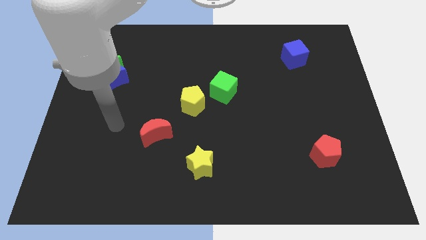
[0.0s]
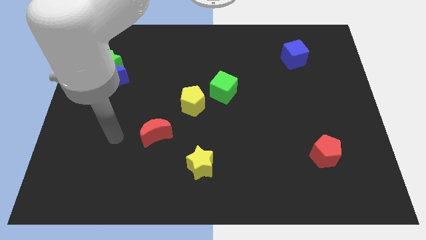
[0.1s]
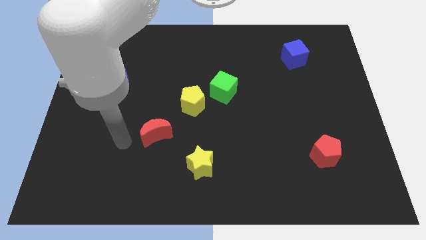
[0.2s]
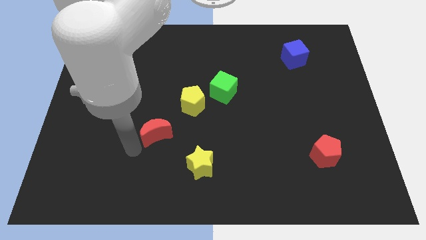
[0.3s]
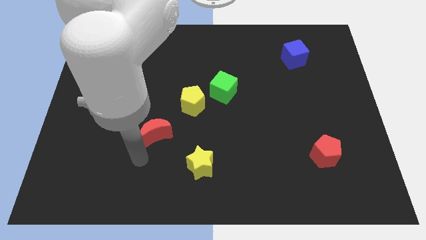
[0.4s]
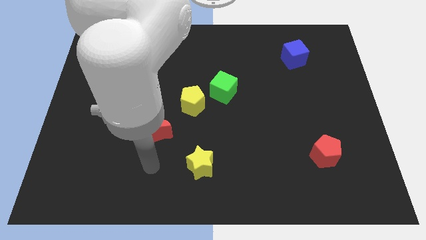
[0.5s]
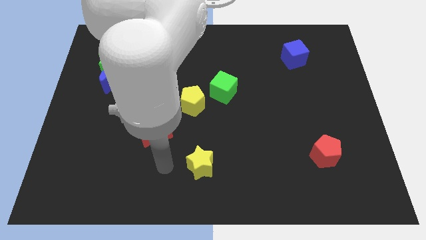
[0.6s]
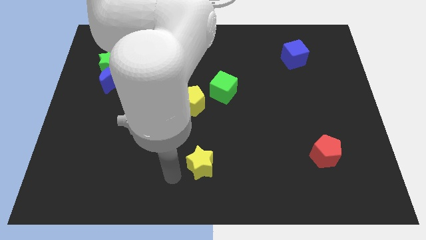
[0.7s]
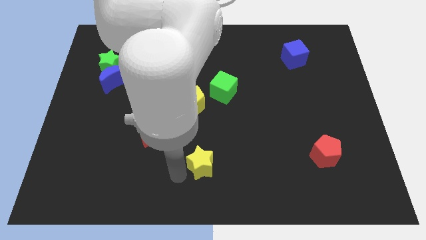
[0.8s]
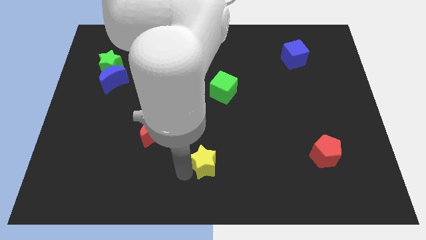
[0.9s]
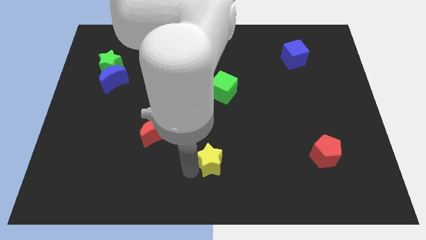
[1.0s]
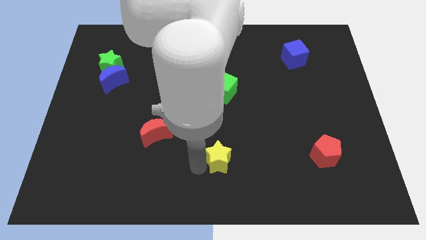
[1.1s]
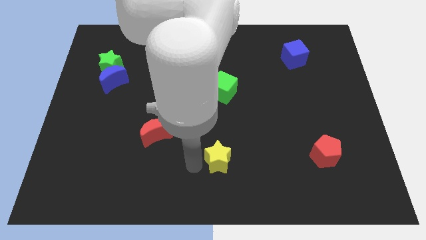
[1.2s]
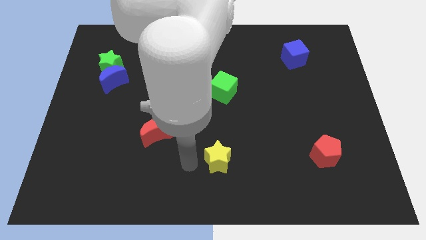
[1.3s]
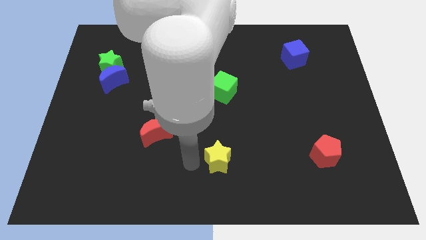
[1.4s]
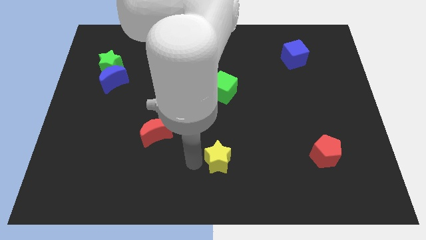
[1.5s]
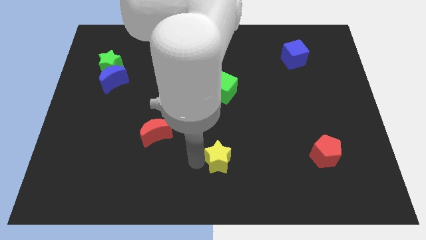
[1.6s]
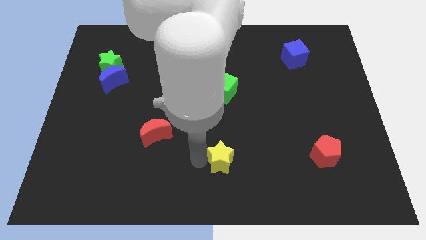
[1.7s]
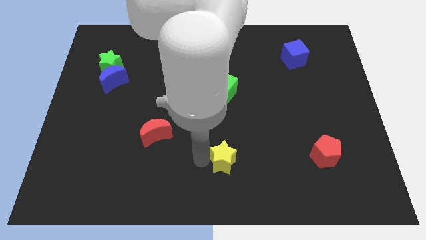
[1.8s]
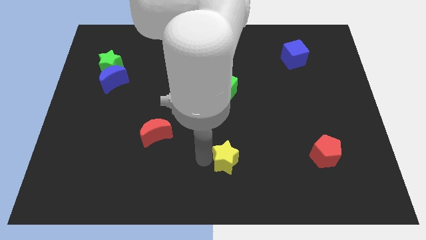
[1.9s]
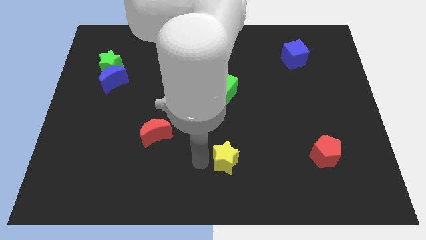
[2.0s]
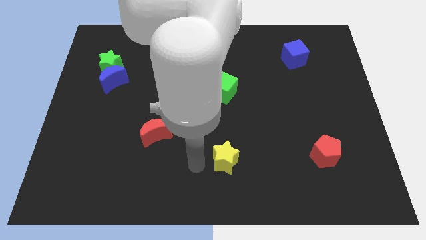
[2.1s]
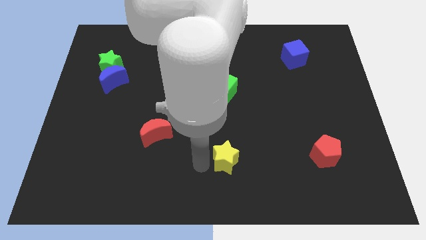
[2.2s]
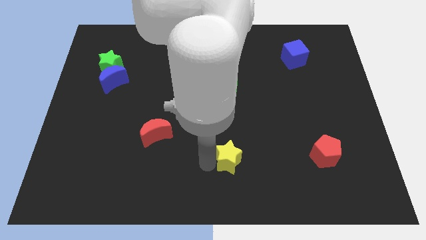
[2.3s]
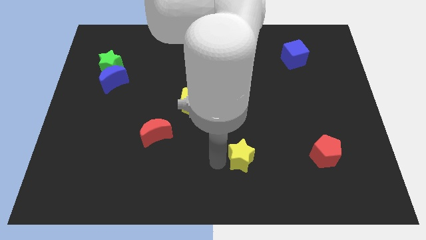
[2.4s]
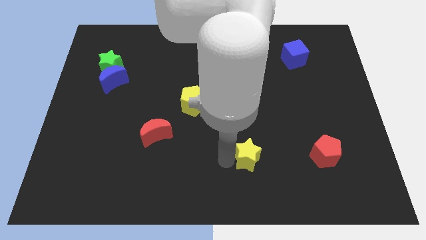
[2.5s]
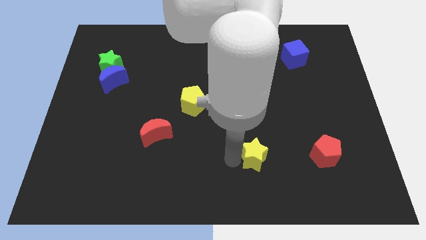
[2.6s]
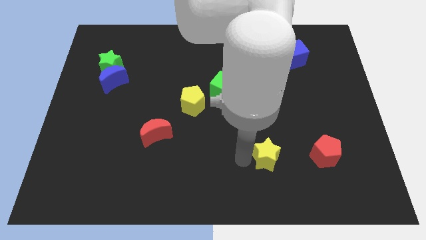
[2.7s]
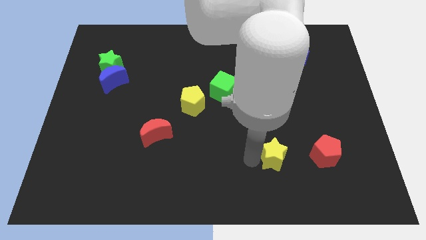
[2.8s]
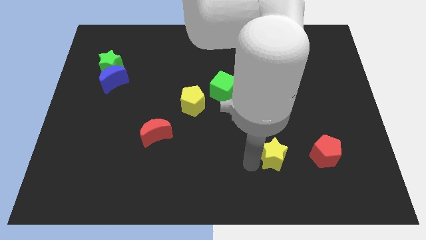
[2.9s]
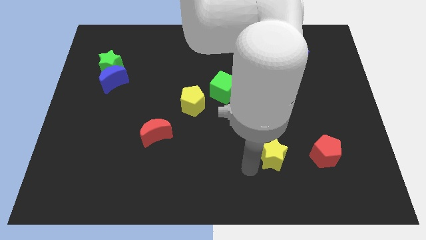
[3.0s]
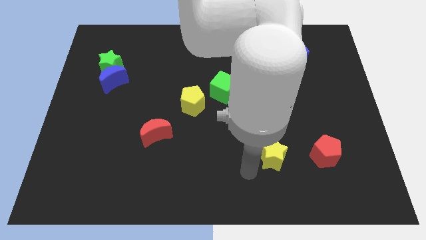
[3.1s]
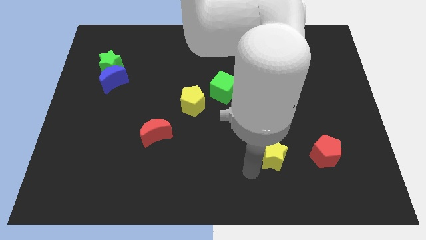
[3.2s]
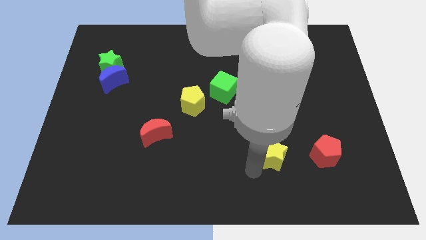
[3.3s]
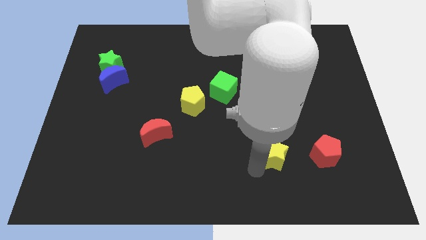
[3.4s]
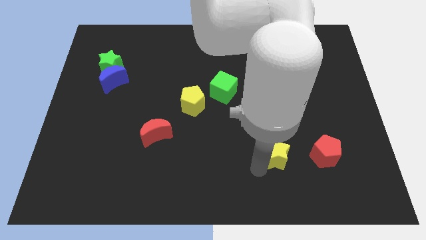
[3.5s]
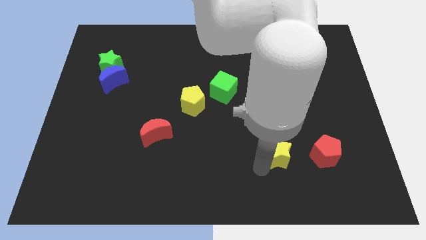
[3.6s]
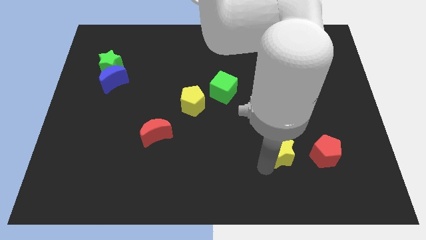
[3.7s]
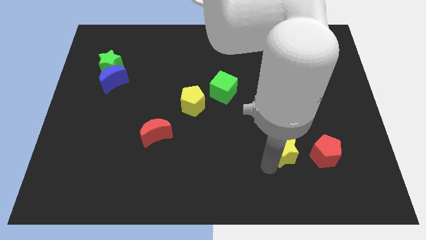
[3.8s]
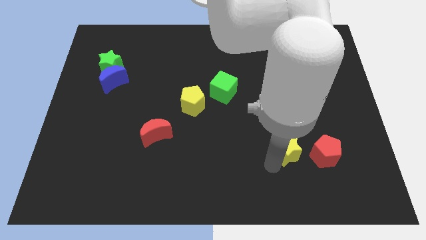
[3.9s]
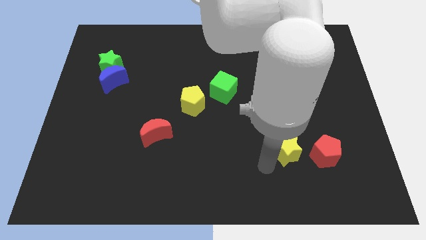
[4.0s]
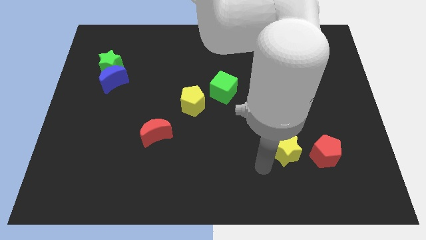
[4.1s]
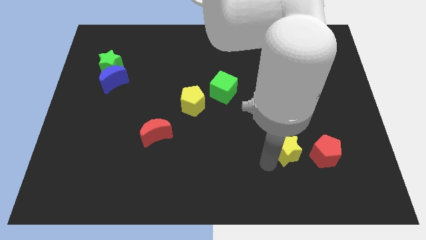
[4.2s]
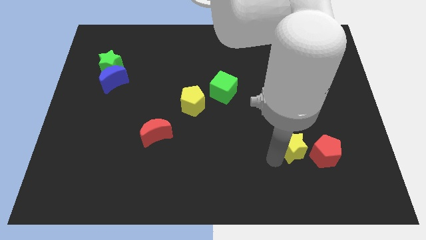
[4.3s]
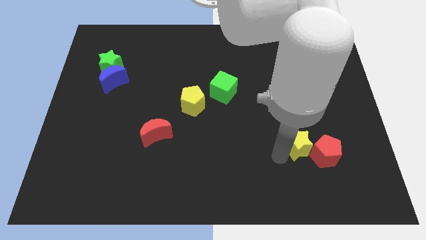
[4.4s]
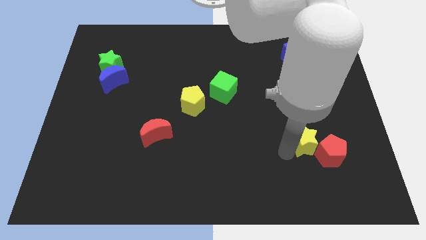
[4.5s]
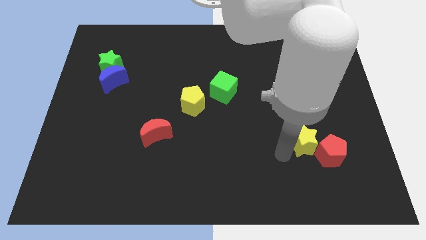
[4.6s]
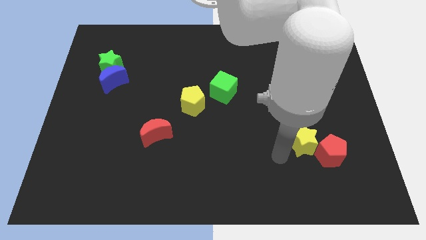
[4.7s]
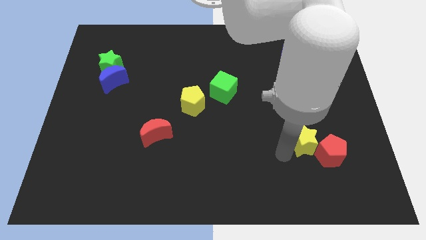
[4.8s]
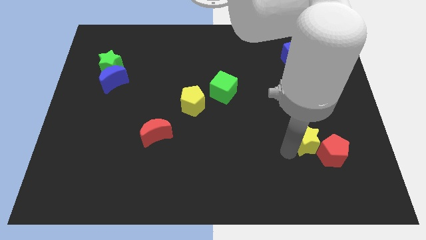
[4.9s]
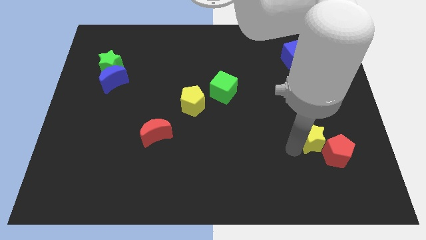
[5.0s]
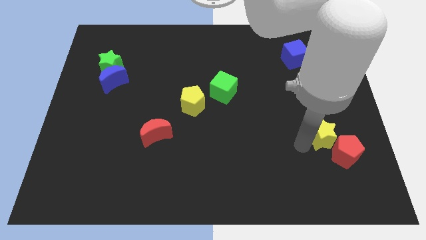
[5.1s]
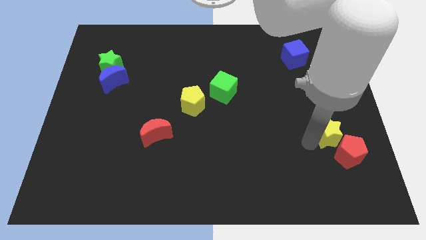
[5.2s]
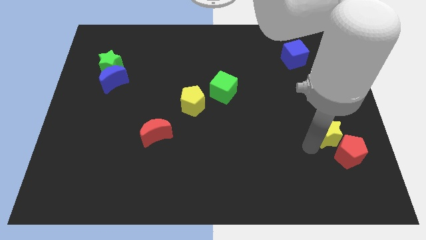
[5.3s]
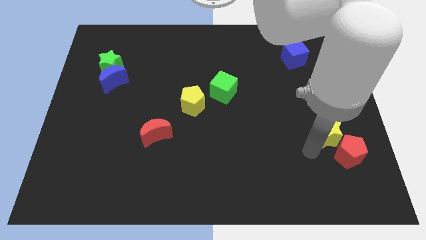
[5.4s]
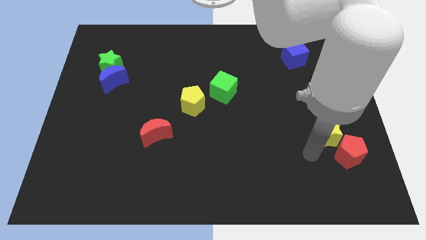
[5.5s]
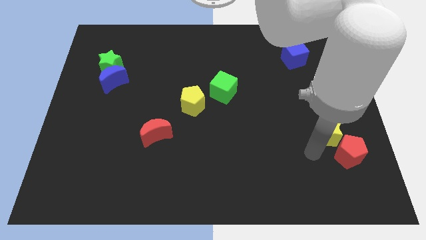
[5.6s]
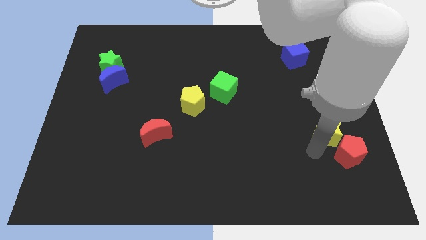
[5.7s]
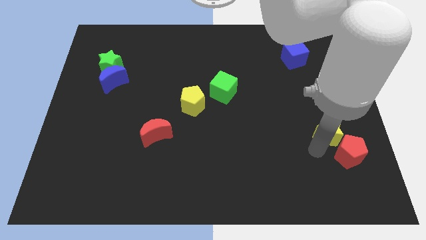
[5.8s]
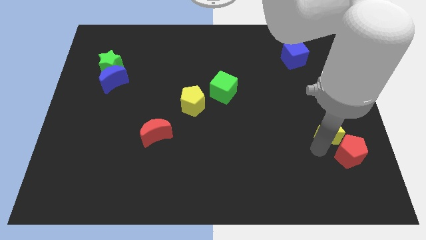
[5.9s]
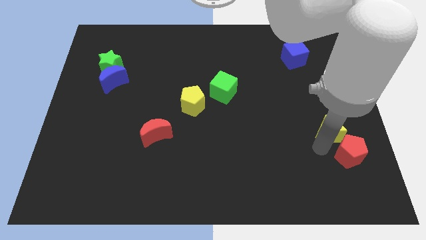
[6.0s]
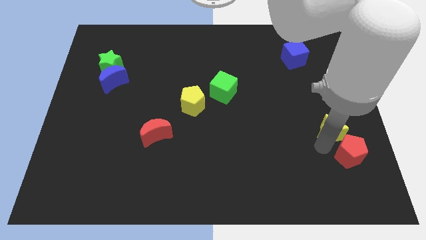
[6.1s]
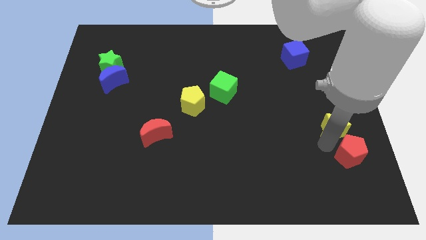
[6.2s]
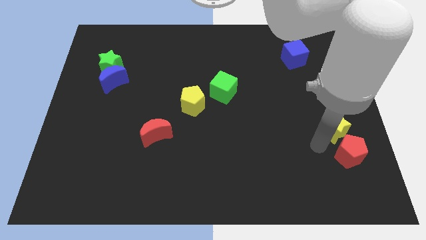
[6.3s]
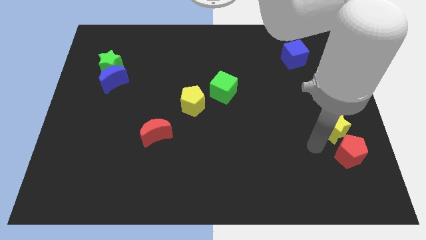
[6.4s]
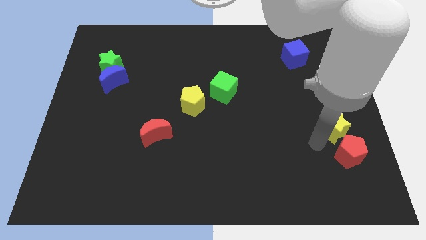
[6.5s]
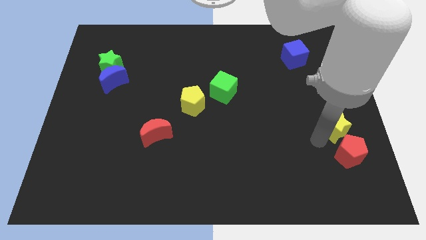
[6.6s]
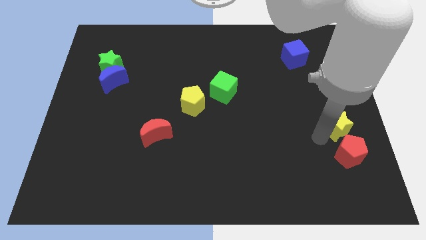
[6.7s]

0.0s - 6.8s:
push the yellow star to the right side

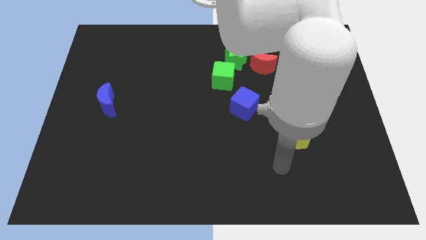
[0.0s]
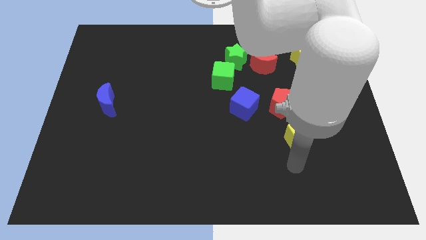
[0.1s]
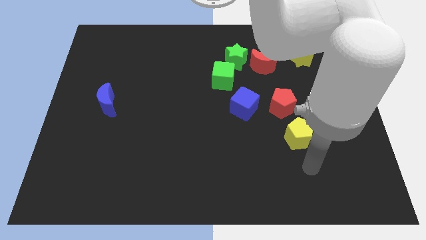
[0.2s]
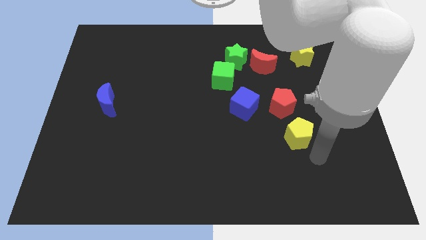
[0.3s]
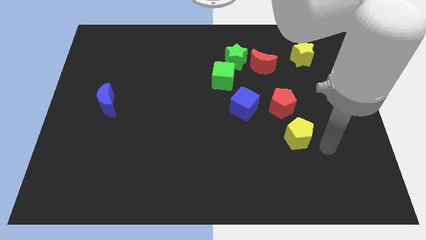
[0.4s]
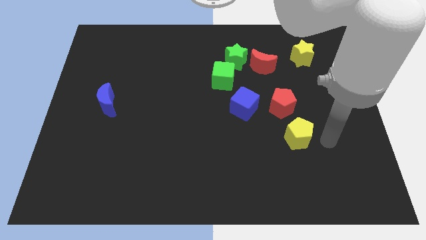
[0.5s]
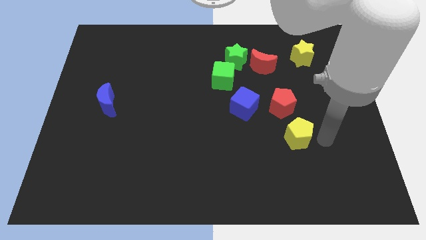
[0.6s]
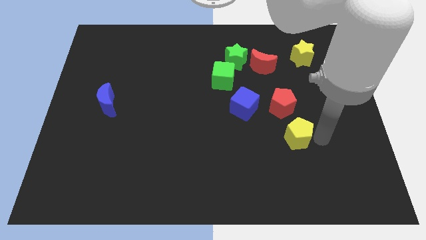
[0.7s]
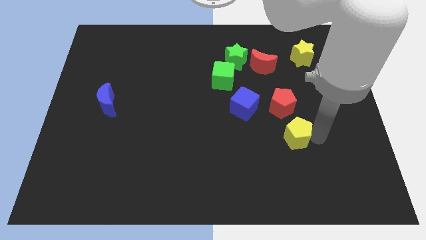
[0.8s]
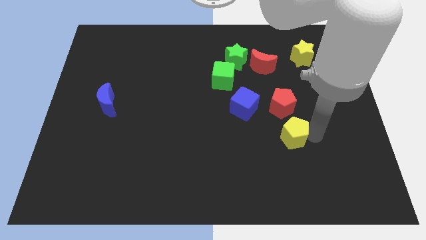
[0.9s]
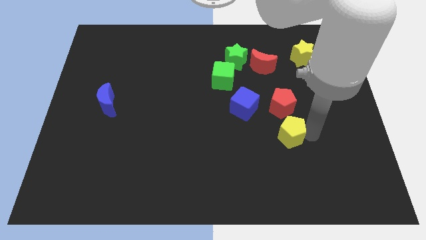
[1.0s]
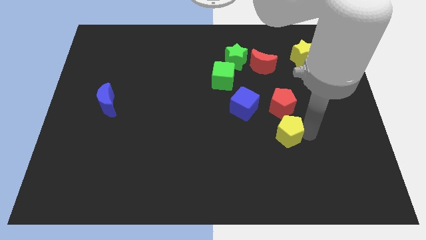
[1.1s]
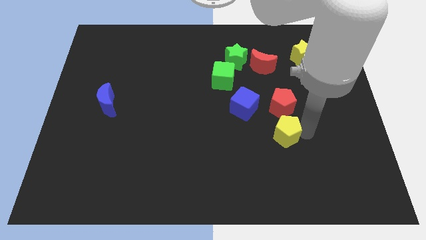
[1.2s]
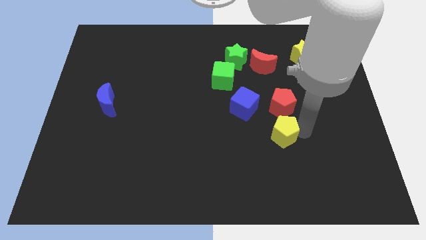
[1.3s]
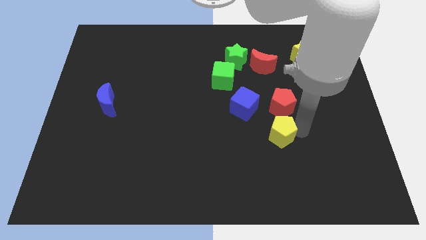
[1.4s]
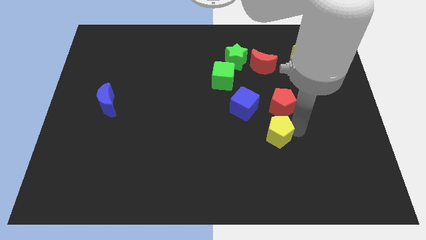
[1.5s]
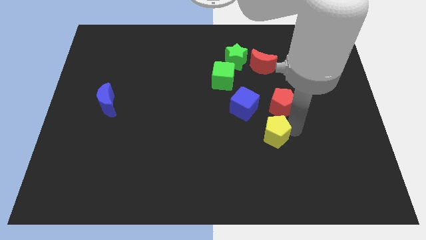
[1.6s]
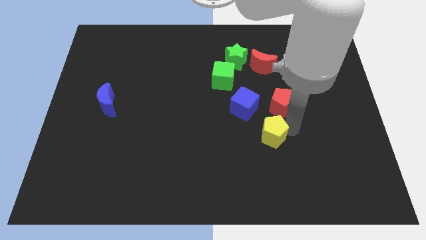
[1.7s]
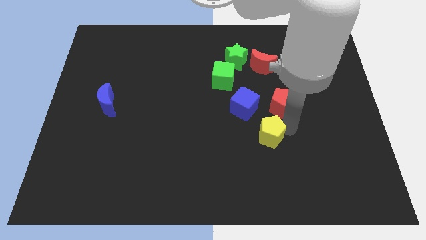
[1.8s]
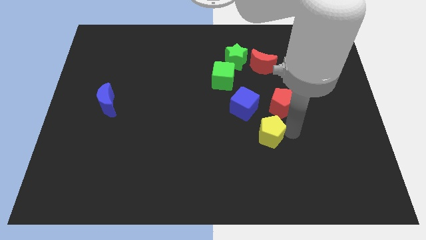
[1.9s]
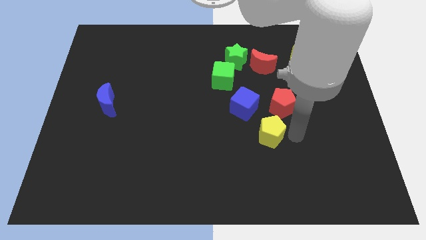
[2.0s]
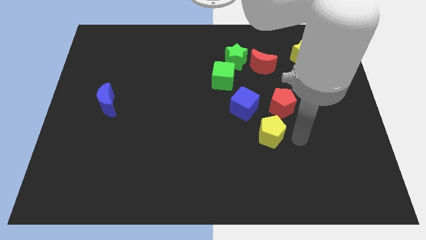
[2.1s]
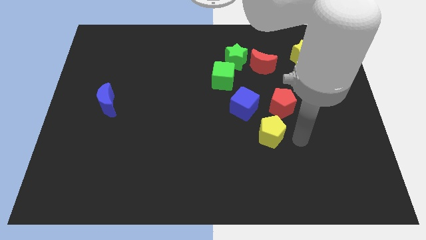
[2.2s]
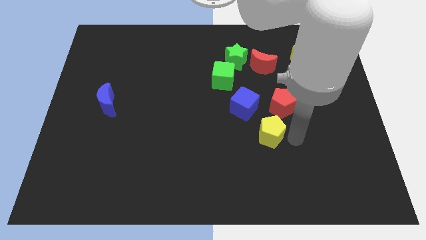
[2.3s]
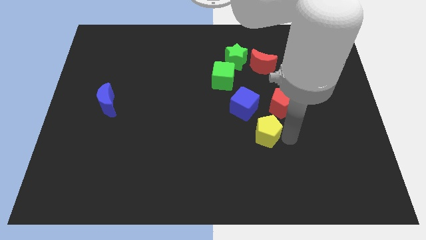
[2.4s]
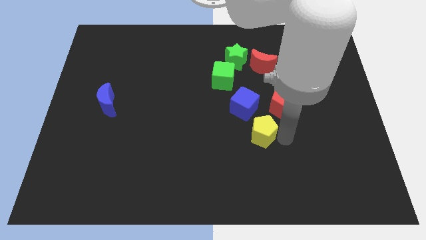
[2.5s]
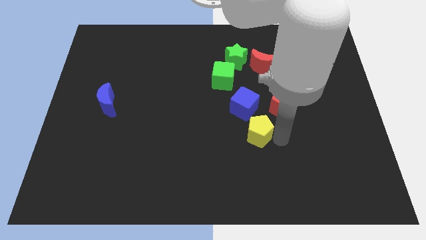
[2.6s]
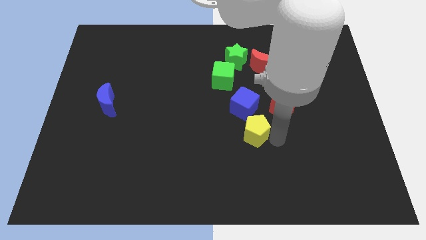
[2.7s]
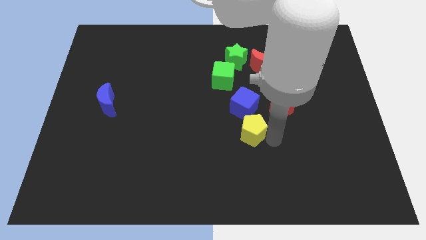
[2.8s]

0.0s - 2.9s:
put the yellow pentagon to the middle of the board
